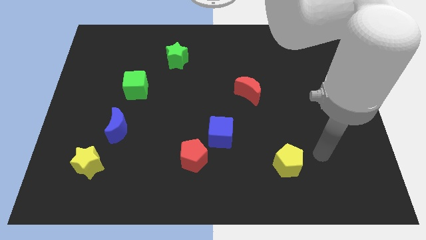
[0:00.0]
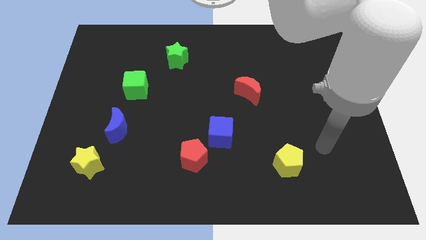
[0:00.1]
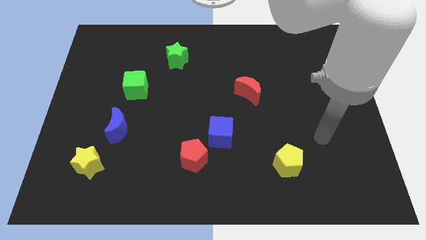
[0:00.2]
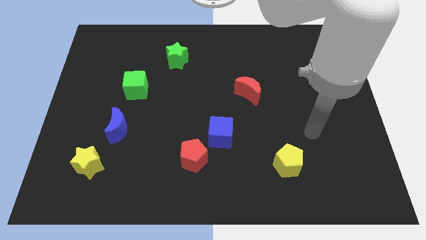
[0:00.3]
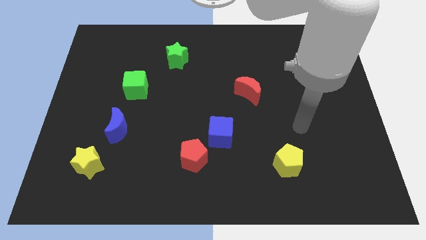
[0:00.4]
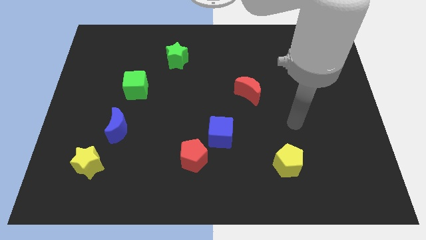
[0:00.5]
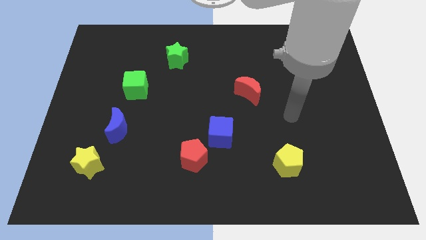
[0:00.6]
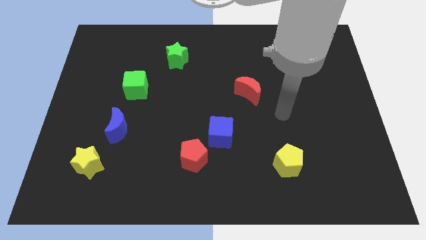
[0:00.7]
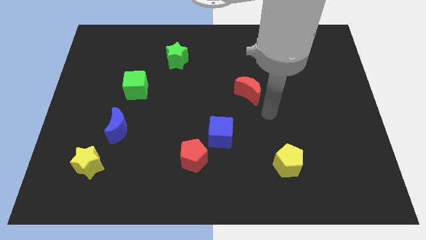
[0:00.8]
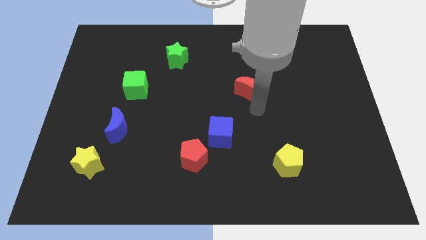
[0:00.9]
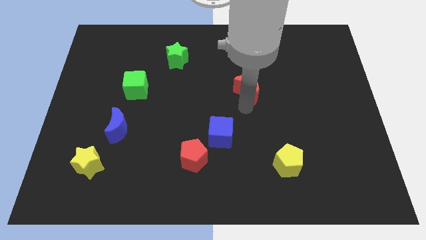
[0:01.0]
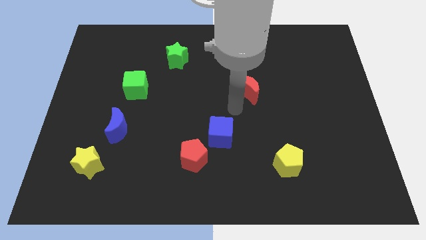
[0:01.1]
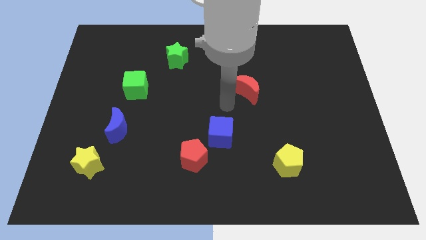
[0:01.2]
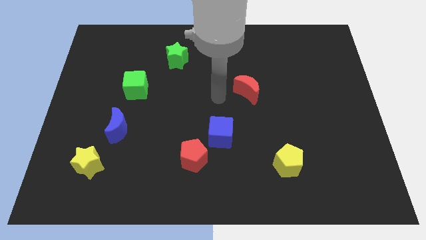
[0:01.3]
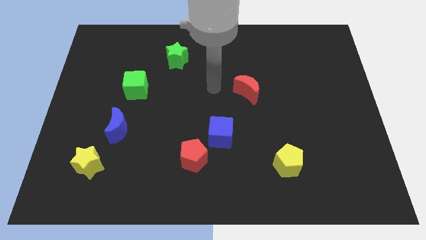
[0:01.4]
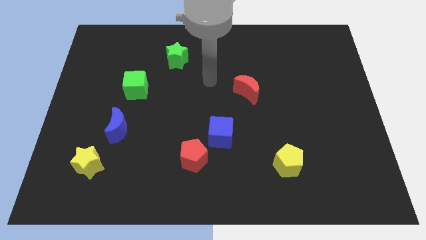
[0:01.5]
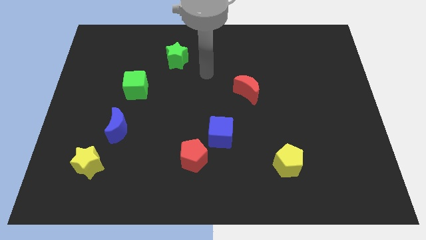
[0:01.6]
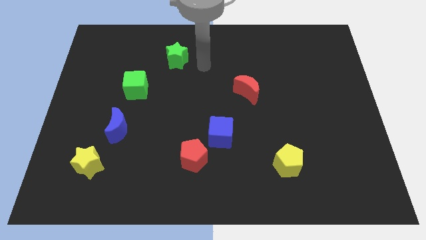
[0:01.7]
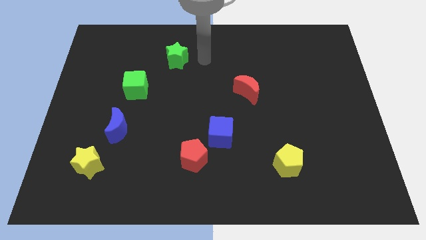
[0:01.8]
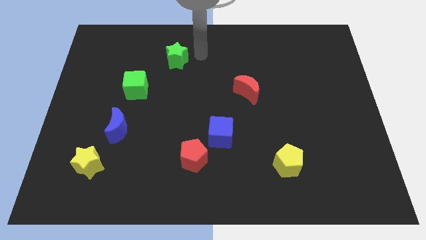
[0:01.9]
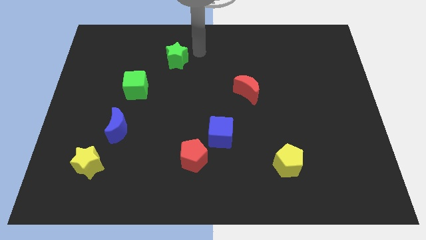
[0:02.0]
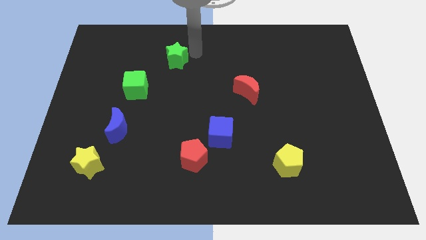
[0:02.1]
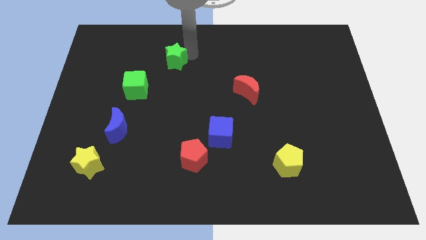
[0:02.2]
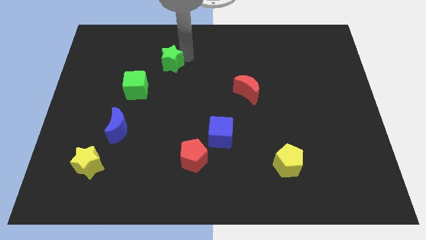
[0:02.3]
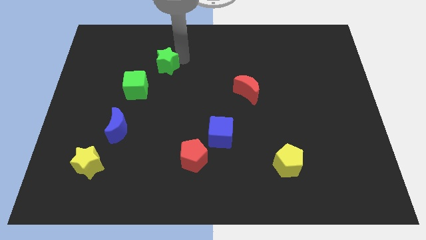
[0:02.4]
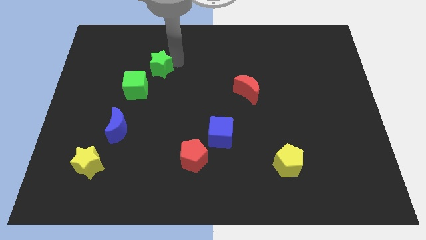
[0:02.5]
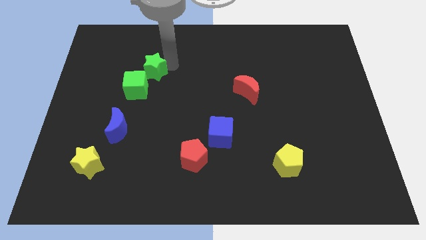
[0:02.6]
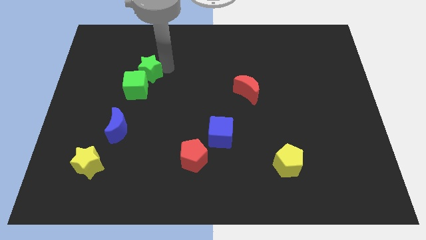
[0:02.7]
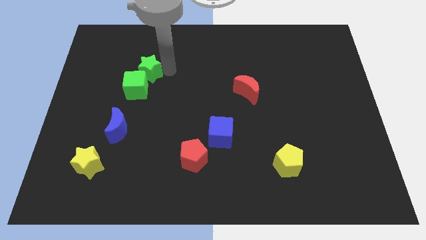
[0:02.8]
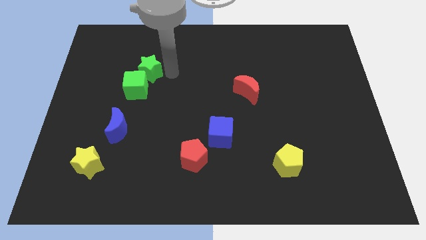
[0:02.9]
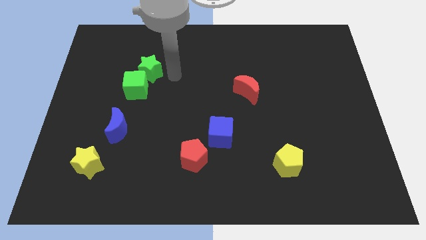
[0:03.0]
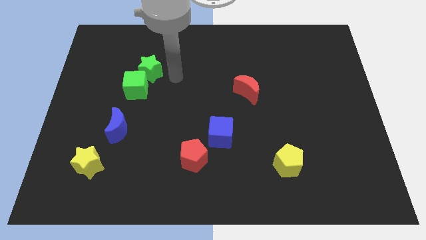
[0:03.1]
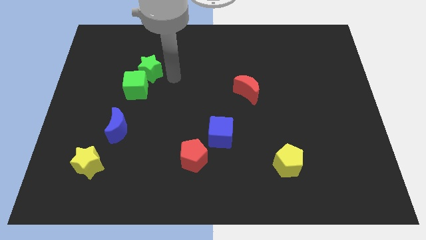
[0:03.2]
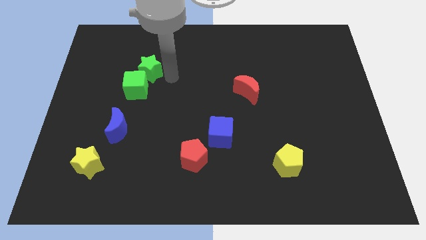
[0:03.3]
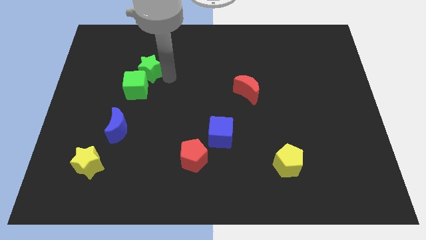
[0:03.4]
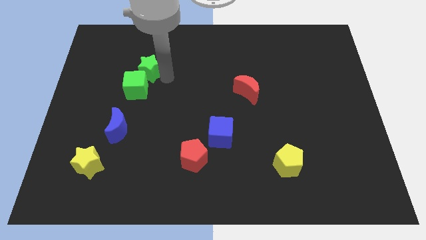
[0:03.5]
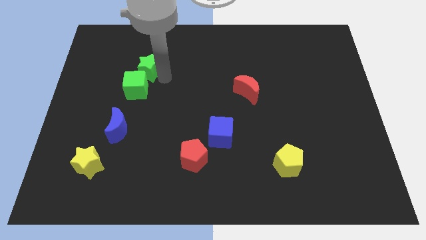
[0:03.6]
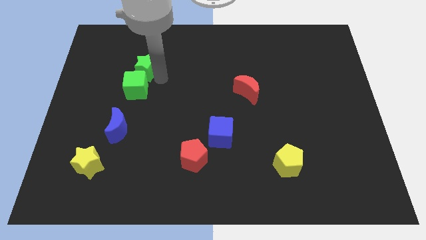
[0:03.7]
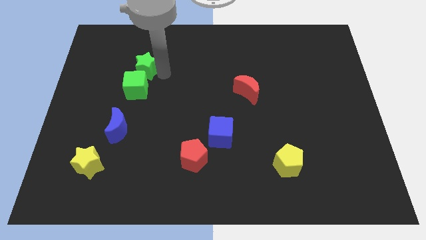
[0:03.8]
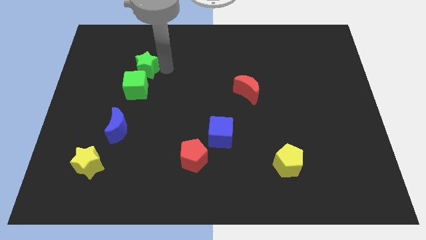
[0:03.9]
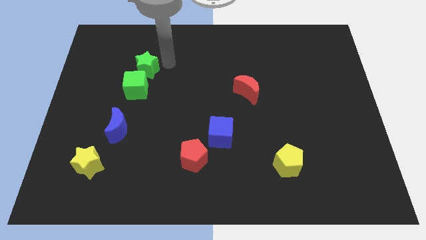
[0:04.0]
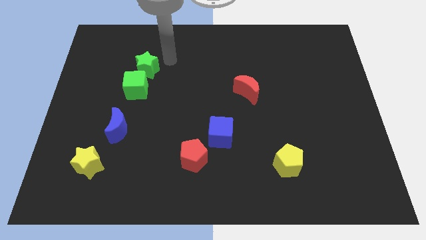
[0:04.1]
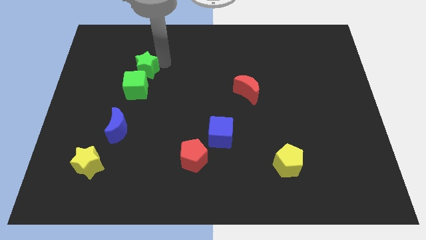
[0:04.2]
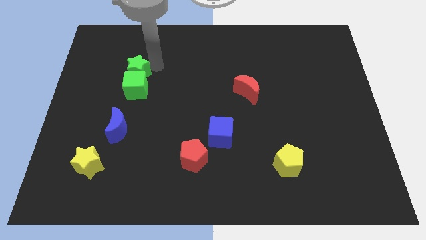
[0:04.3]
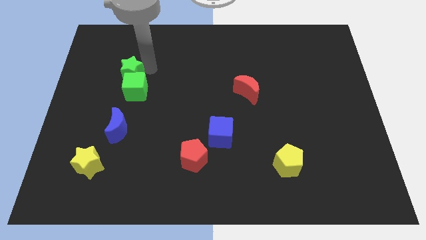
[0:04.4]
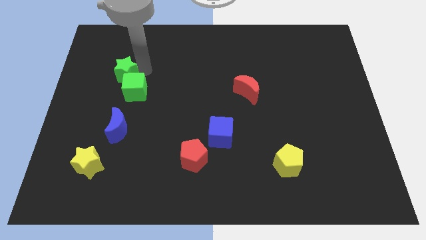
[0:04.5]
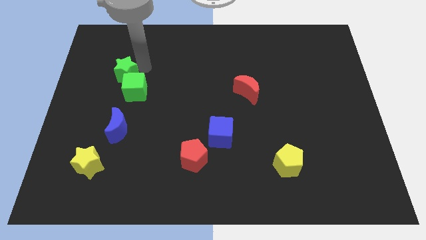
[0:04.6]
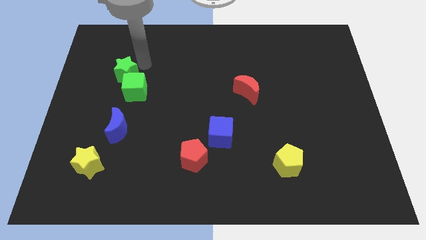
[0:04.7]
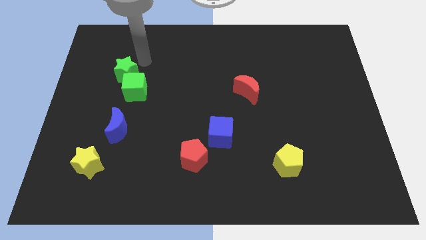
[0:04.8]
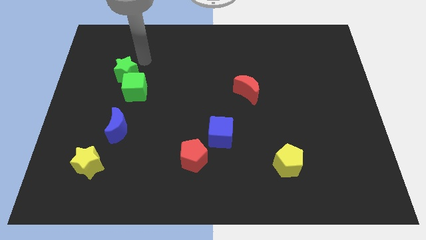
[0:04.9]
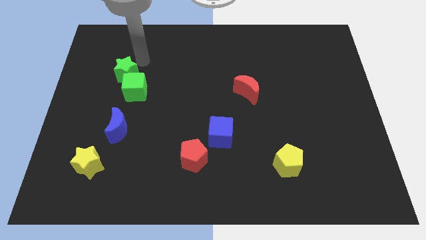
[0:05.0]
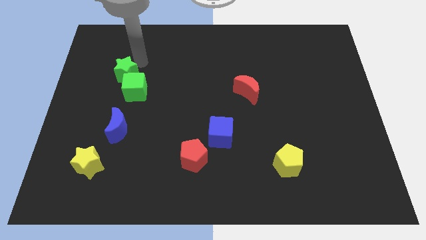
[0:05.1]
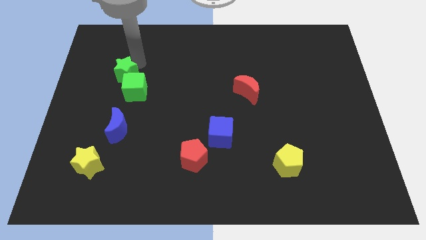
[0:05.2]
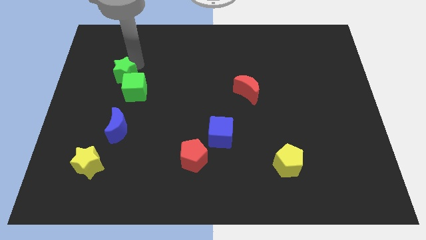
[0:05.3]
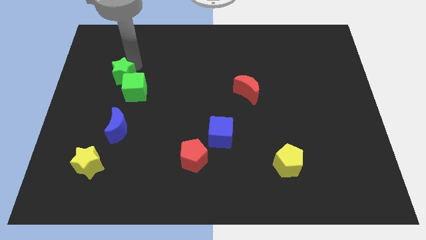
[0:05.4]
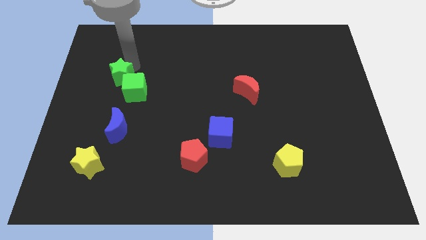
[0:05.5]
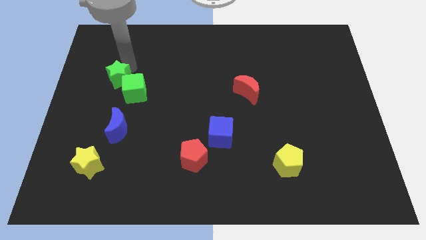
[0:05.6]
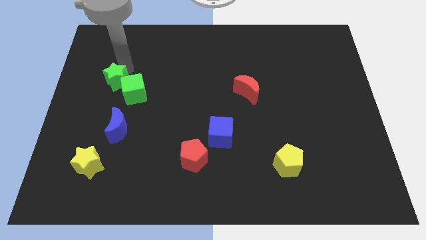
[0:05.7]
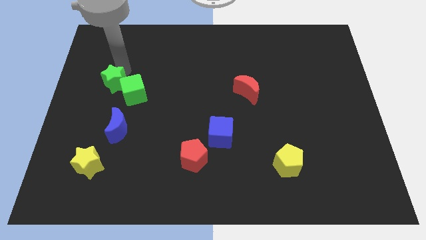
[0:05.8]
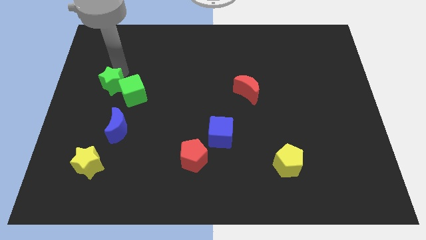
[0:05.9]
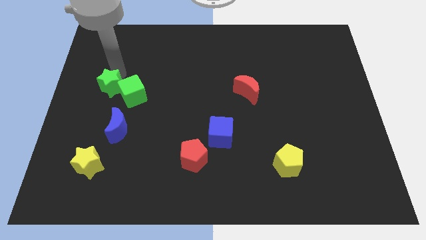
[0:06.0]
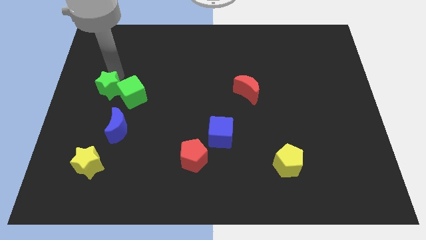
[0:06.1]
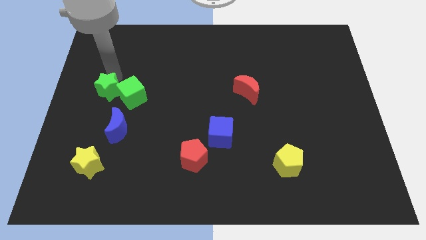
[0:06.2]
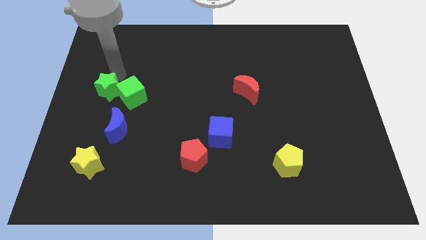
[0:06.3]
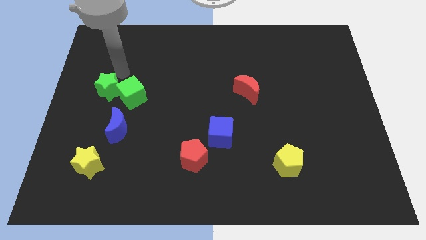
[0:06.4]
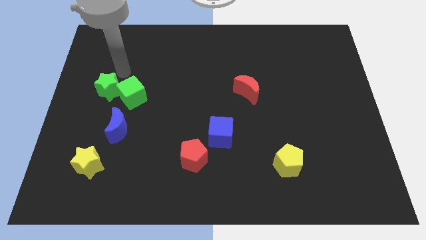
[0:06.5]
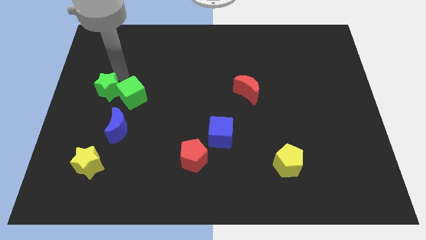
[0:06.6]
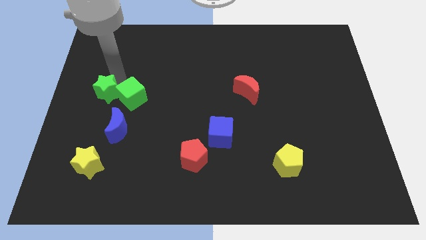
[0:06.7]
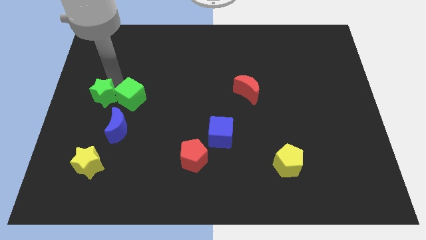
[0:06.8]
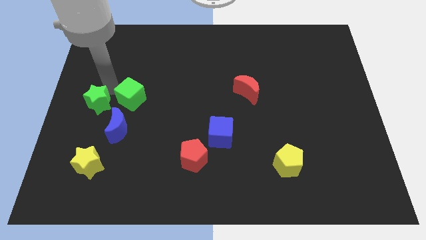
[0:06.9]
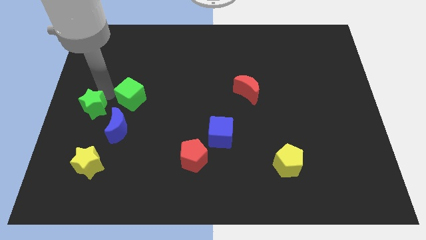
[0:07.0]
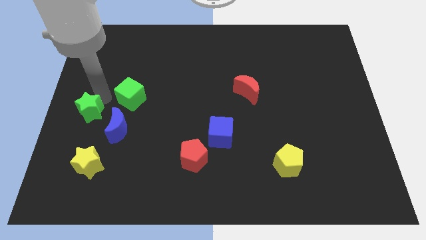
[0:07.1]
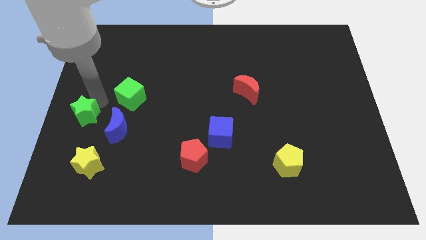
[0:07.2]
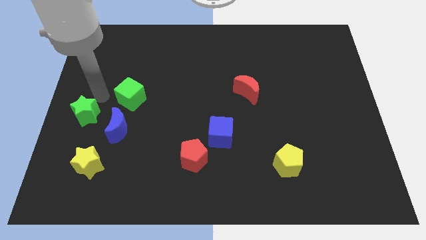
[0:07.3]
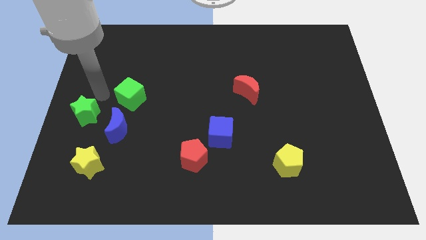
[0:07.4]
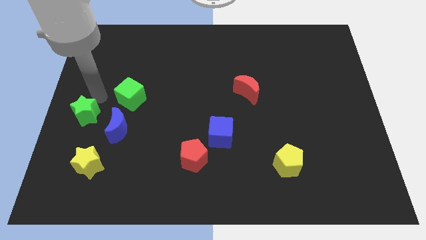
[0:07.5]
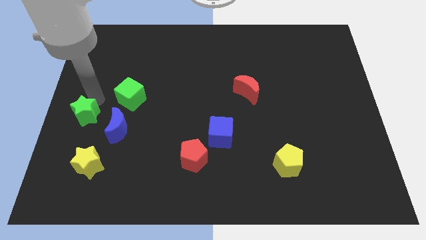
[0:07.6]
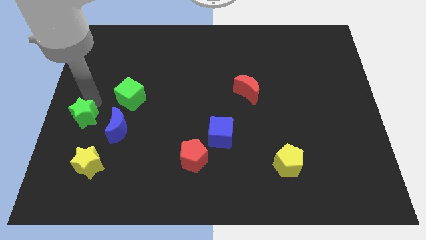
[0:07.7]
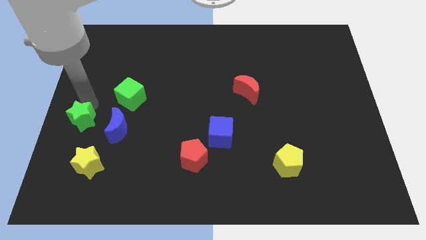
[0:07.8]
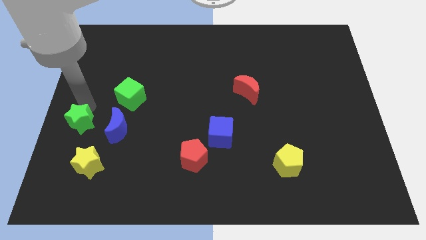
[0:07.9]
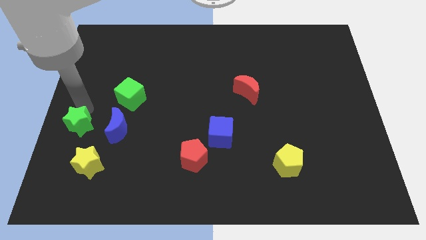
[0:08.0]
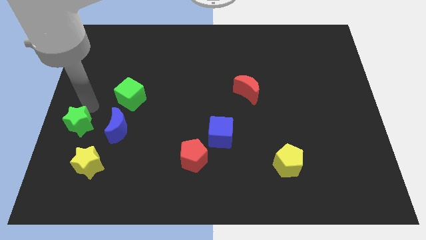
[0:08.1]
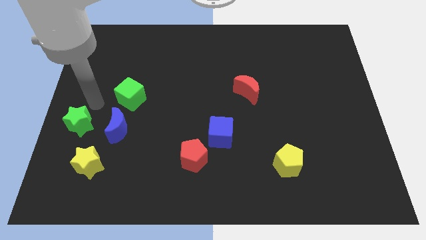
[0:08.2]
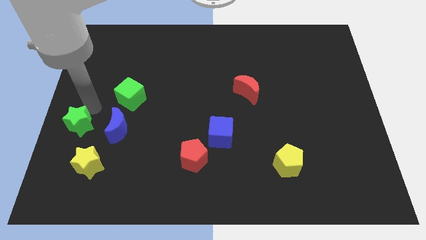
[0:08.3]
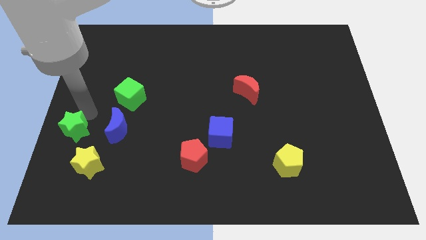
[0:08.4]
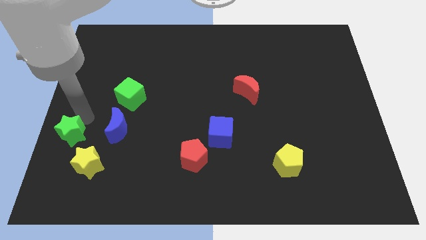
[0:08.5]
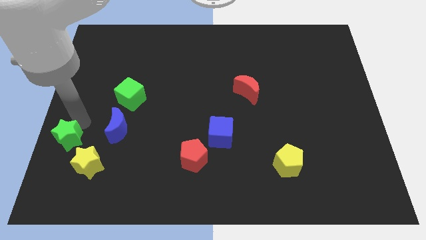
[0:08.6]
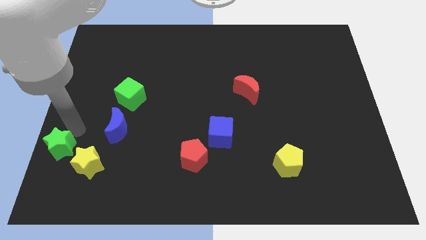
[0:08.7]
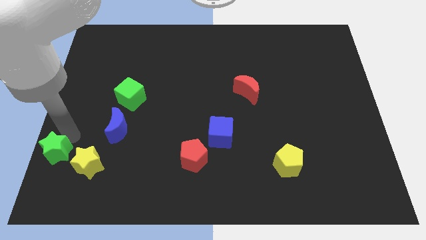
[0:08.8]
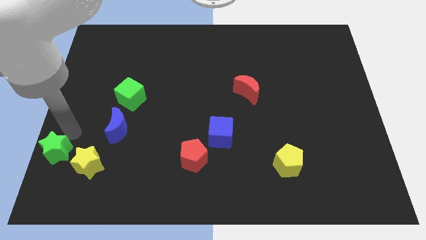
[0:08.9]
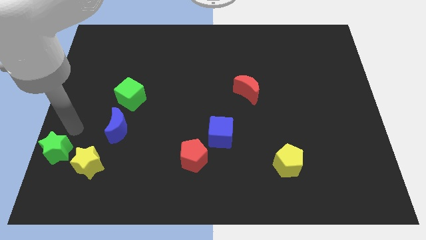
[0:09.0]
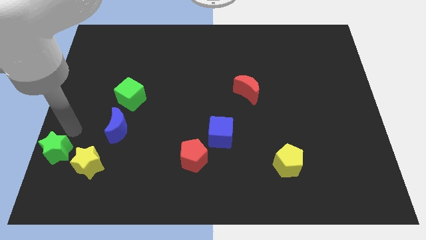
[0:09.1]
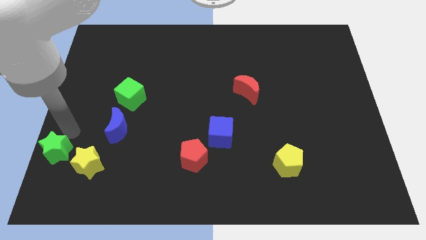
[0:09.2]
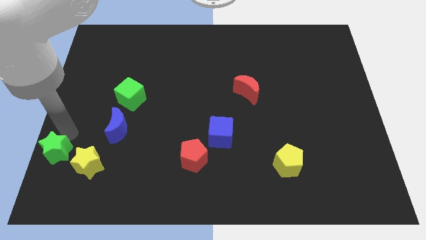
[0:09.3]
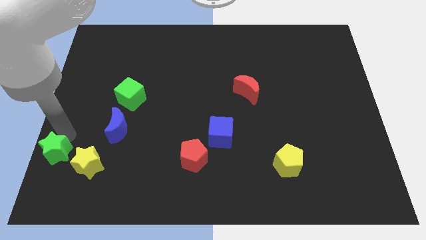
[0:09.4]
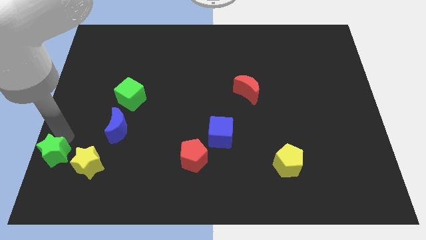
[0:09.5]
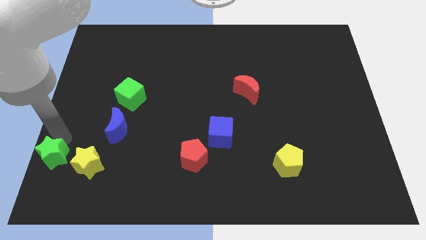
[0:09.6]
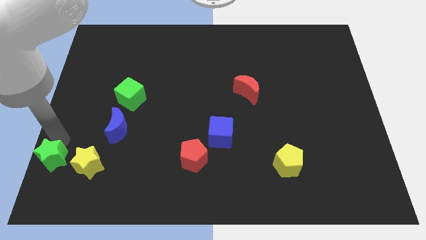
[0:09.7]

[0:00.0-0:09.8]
slide the green star to the bottom left of the board
